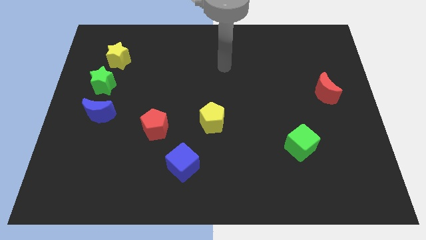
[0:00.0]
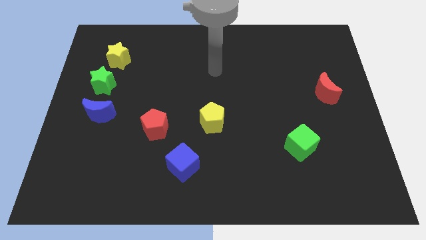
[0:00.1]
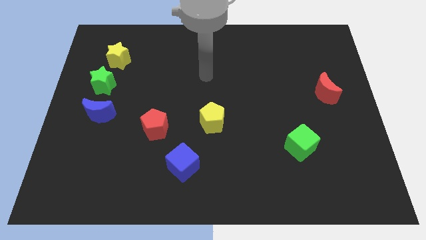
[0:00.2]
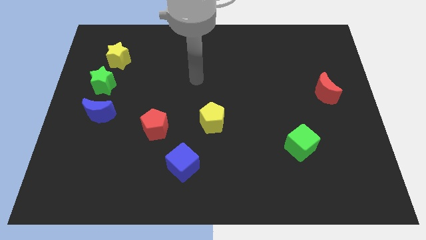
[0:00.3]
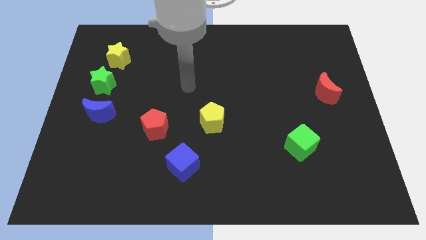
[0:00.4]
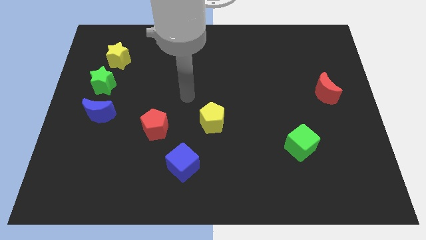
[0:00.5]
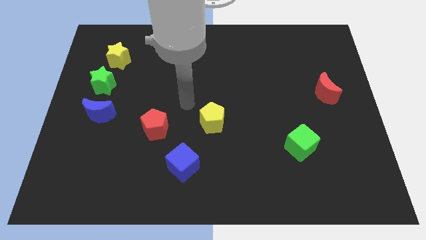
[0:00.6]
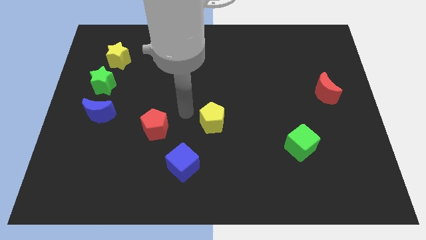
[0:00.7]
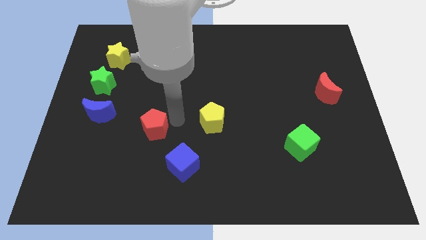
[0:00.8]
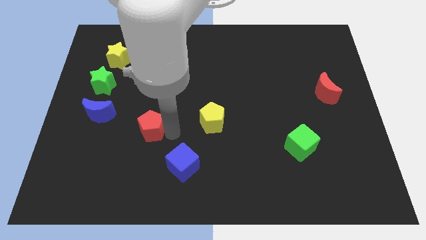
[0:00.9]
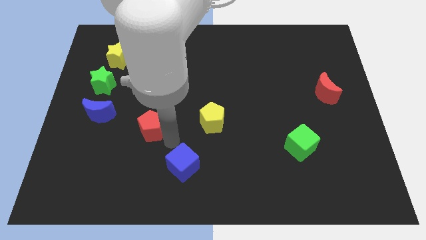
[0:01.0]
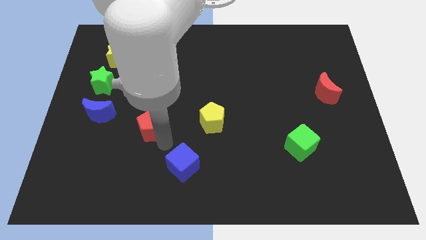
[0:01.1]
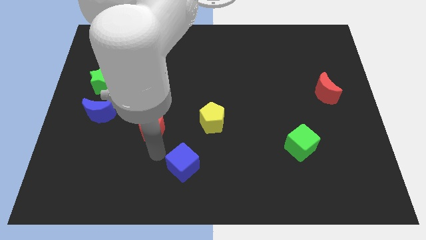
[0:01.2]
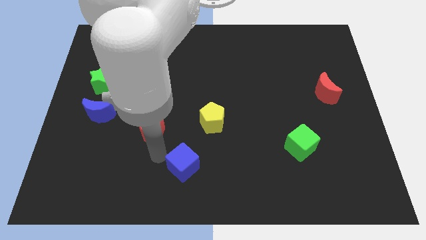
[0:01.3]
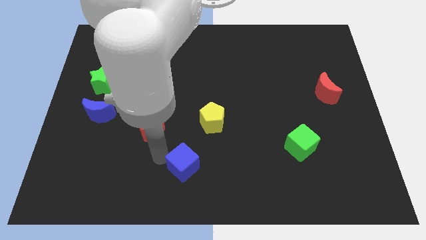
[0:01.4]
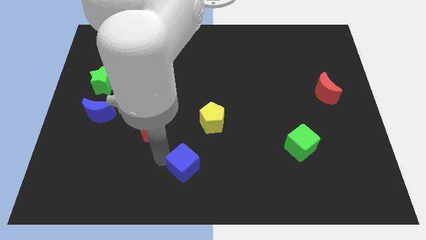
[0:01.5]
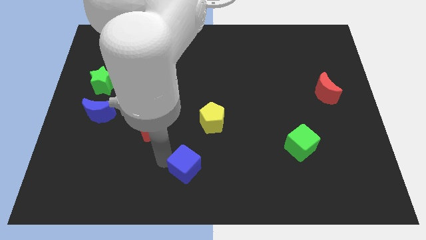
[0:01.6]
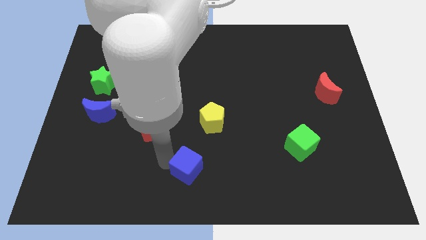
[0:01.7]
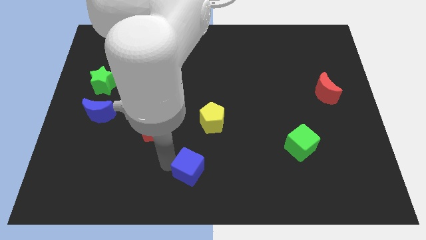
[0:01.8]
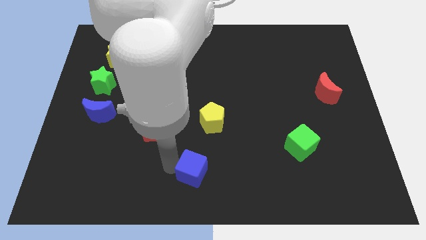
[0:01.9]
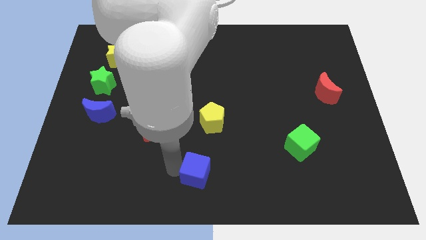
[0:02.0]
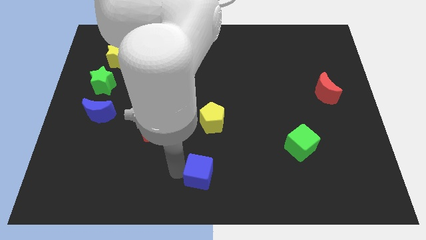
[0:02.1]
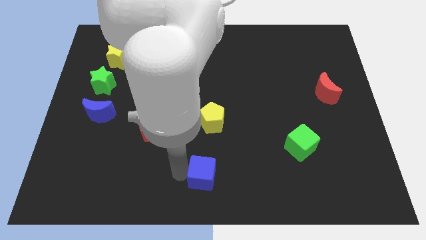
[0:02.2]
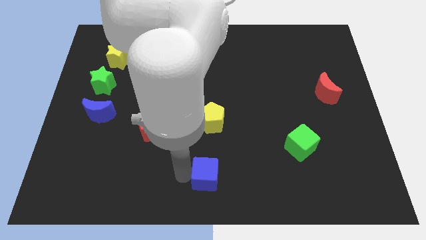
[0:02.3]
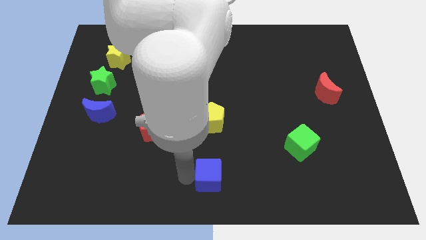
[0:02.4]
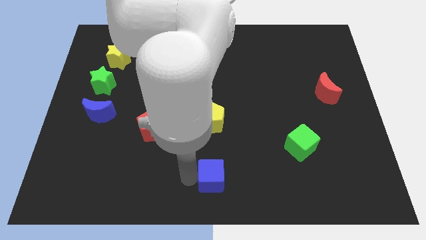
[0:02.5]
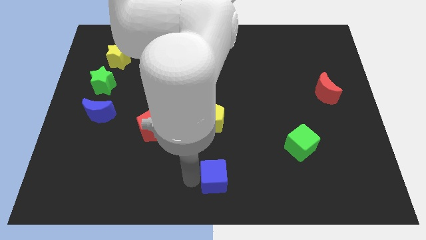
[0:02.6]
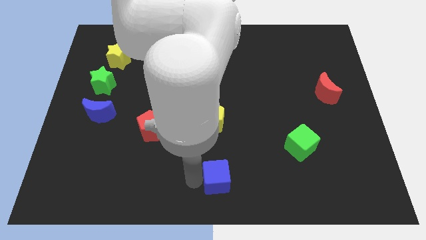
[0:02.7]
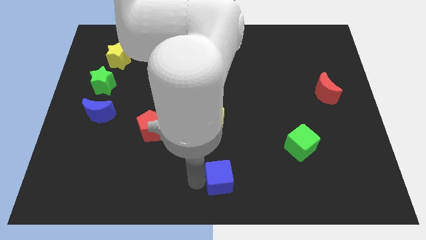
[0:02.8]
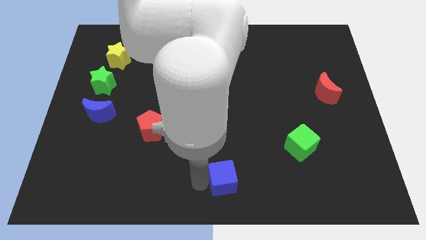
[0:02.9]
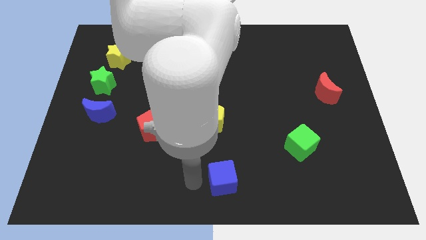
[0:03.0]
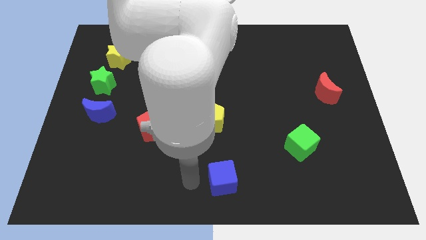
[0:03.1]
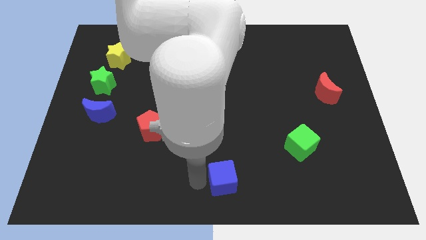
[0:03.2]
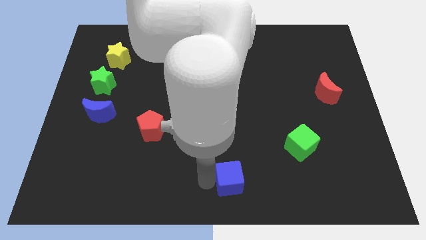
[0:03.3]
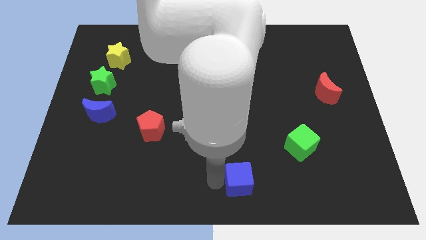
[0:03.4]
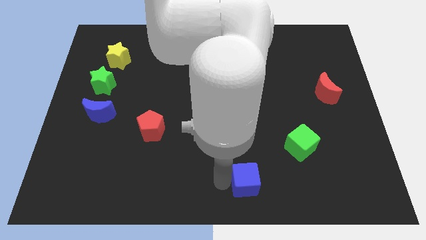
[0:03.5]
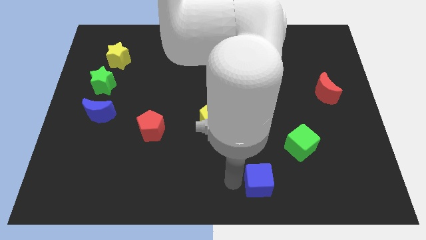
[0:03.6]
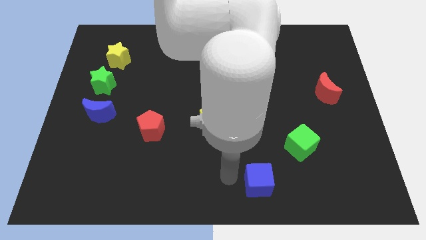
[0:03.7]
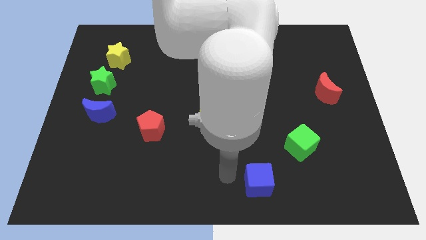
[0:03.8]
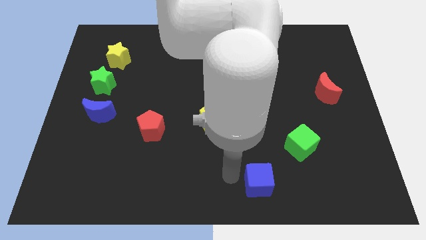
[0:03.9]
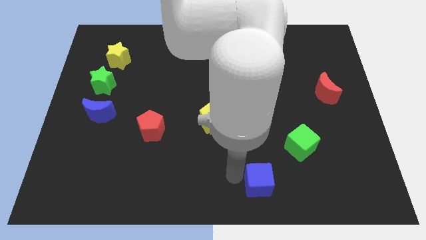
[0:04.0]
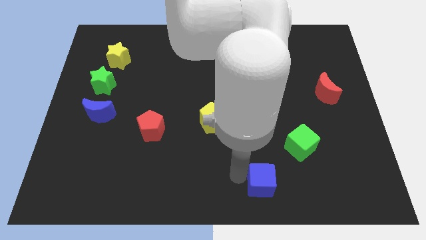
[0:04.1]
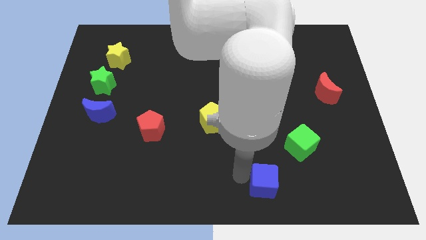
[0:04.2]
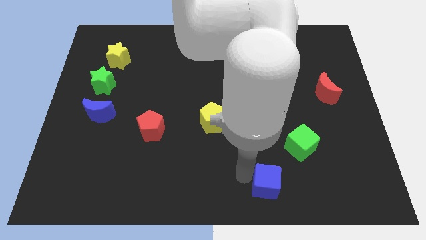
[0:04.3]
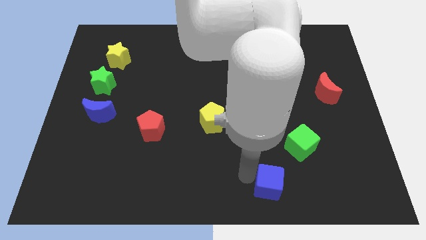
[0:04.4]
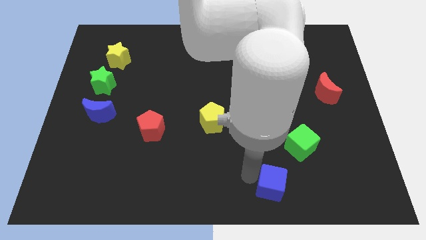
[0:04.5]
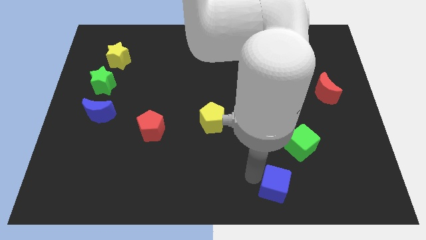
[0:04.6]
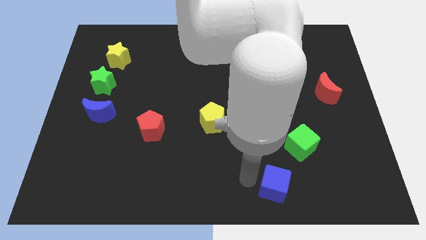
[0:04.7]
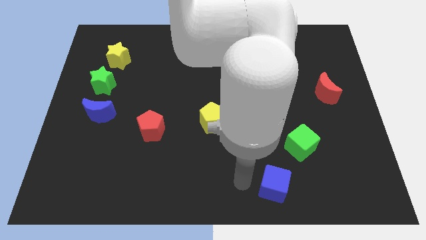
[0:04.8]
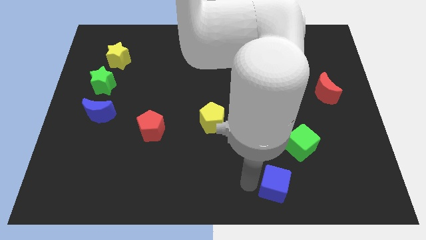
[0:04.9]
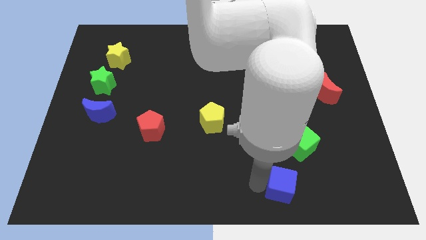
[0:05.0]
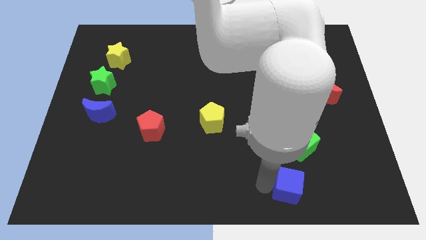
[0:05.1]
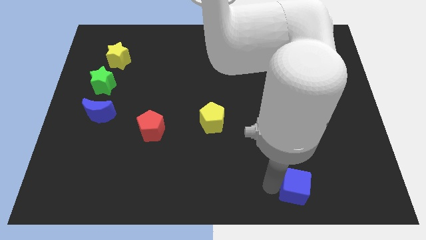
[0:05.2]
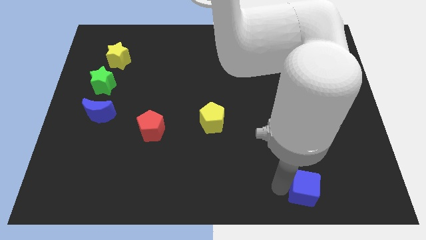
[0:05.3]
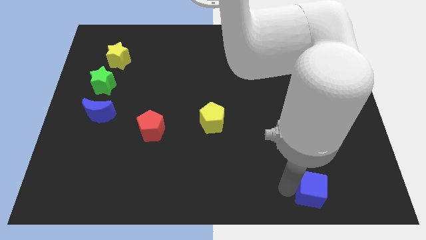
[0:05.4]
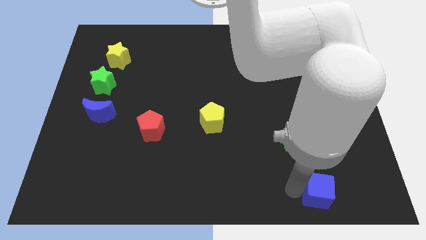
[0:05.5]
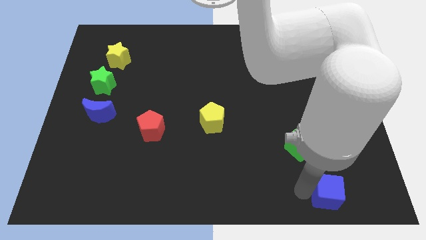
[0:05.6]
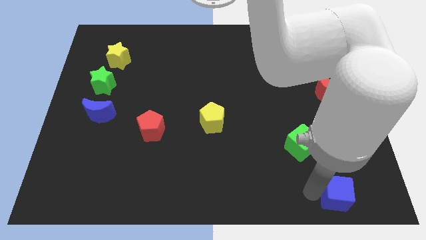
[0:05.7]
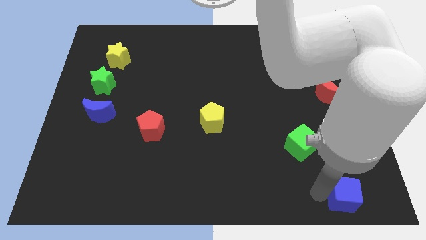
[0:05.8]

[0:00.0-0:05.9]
move the blue cube to the bottom right of the board

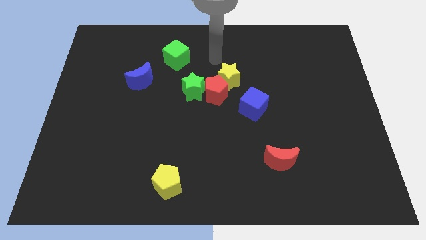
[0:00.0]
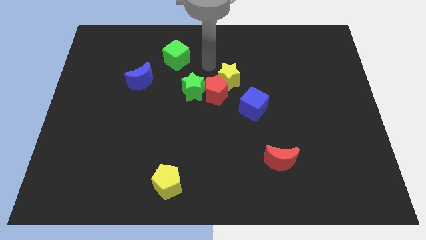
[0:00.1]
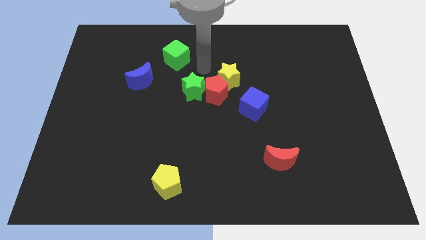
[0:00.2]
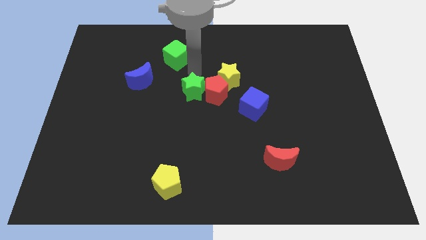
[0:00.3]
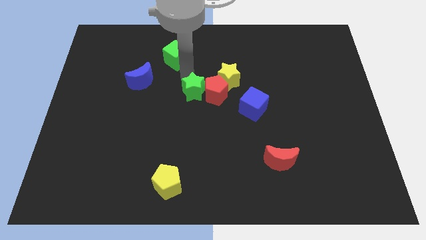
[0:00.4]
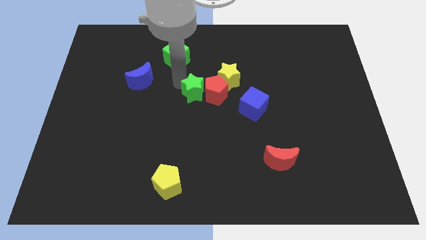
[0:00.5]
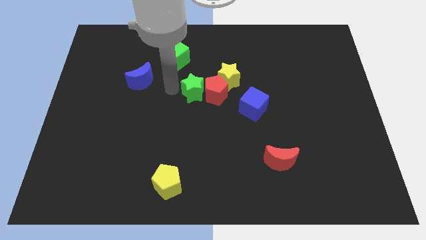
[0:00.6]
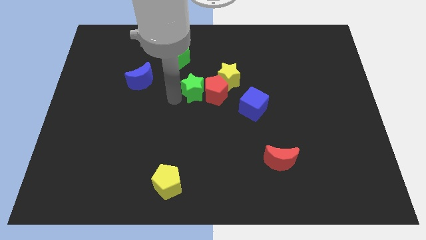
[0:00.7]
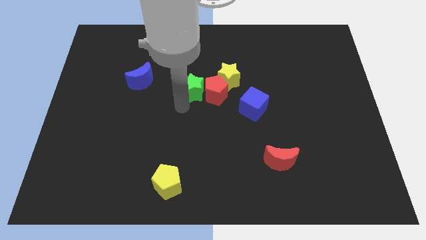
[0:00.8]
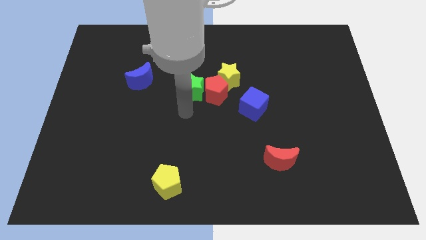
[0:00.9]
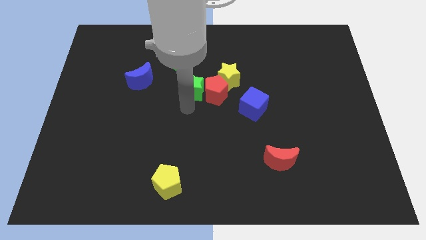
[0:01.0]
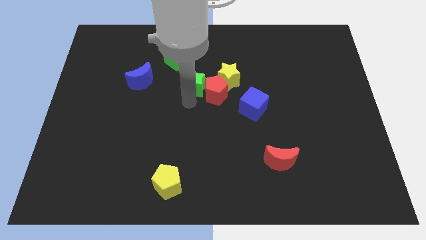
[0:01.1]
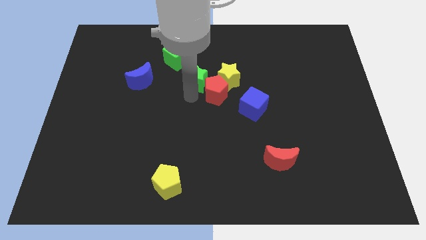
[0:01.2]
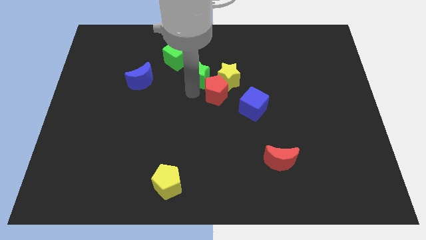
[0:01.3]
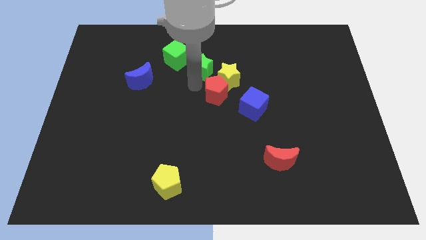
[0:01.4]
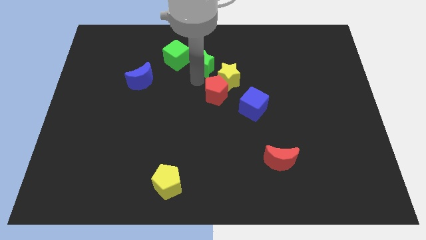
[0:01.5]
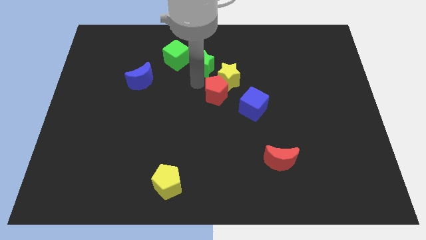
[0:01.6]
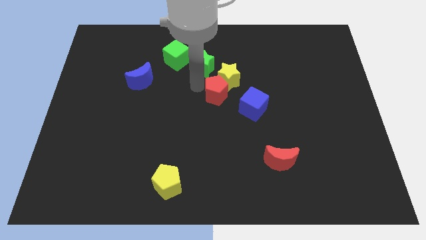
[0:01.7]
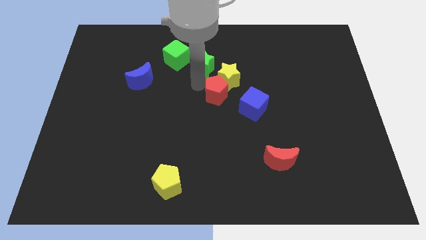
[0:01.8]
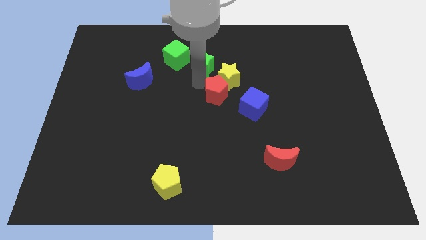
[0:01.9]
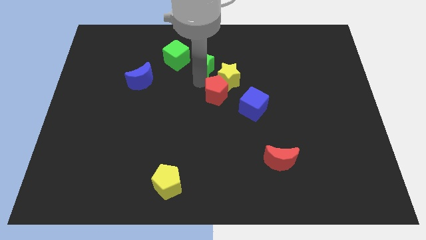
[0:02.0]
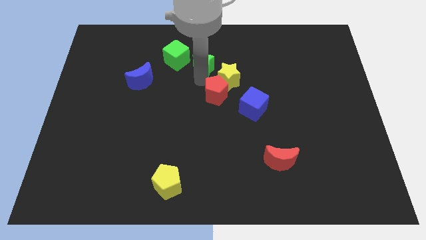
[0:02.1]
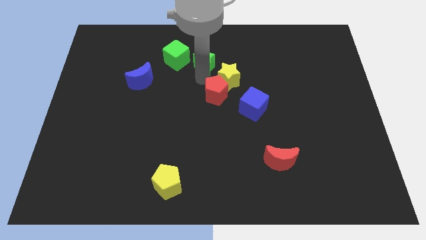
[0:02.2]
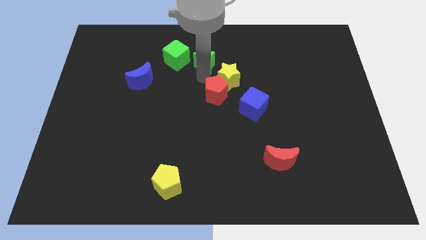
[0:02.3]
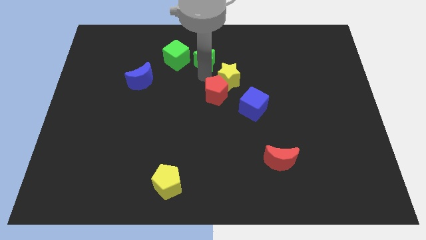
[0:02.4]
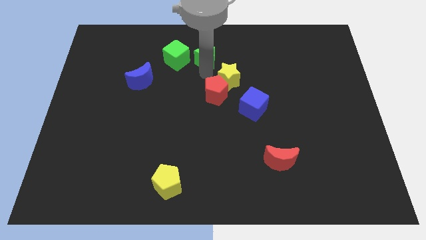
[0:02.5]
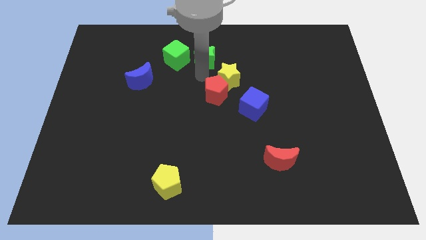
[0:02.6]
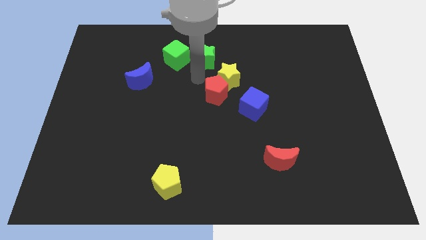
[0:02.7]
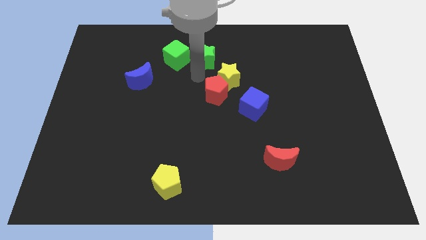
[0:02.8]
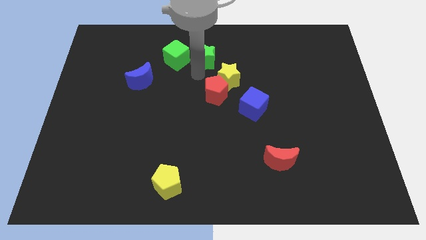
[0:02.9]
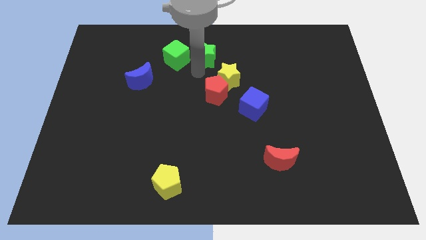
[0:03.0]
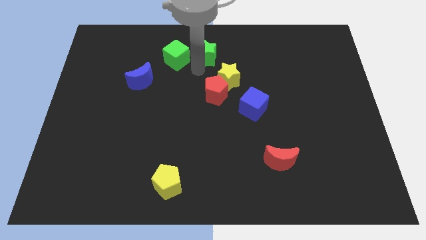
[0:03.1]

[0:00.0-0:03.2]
push the green star to the top side
